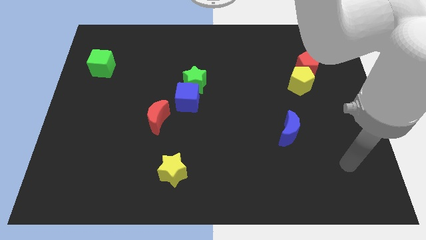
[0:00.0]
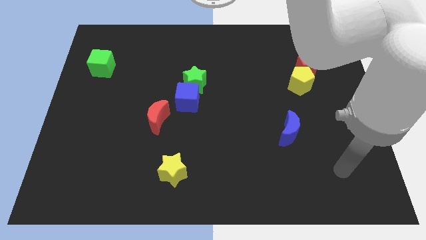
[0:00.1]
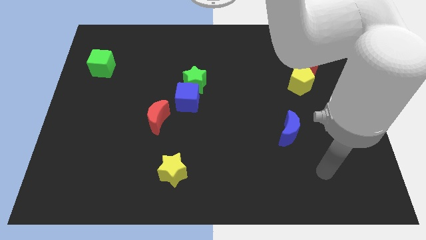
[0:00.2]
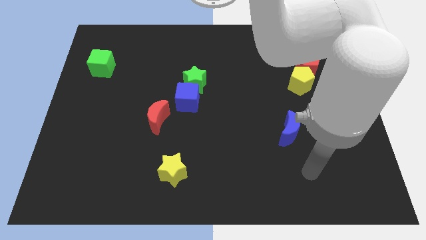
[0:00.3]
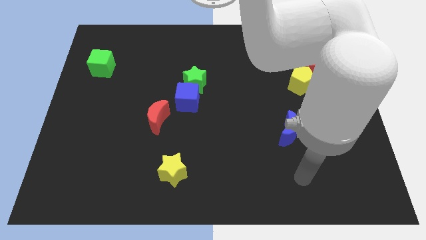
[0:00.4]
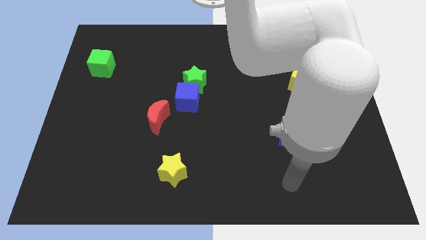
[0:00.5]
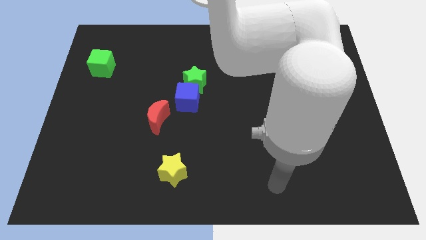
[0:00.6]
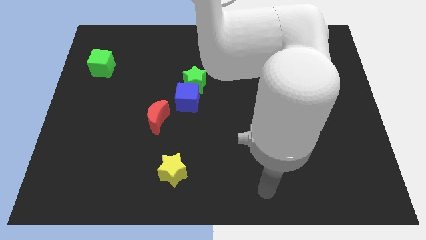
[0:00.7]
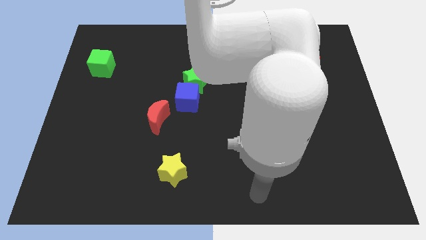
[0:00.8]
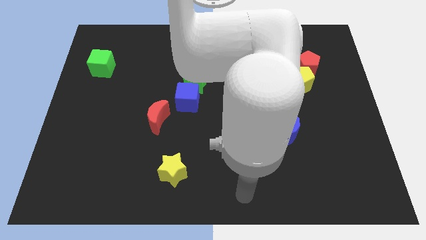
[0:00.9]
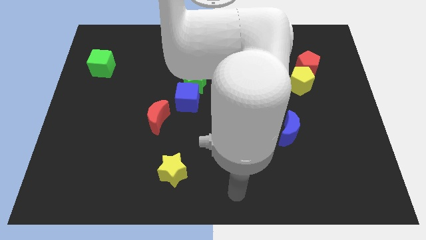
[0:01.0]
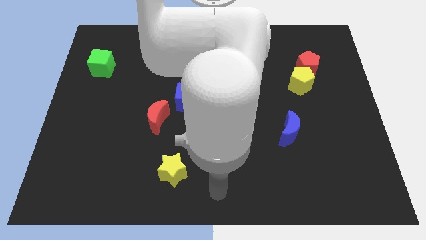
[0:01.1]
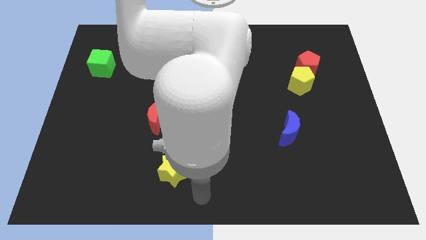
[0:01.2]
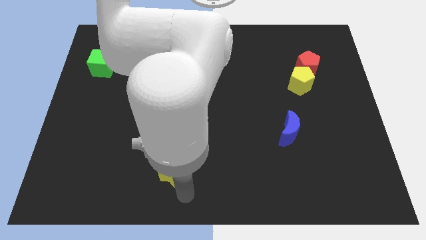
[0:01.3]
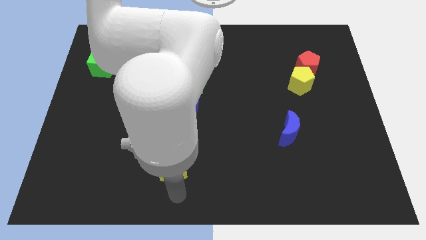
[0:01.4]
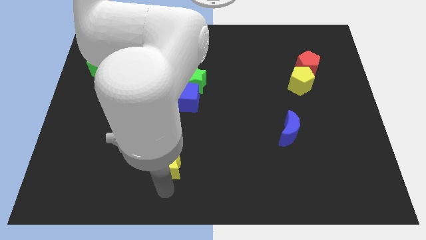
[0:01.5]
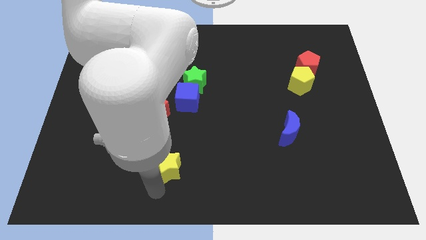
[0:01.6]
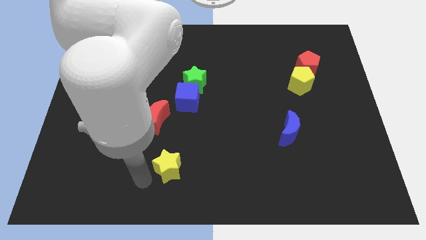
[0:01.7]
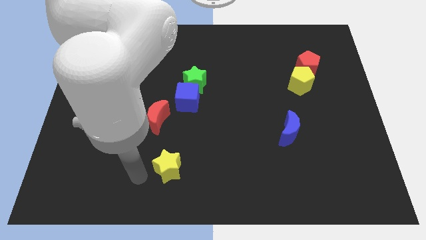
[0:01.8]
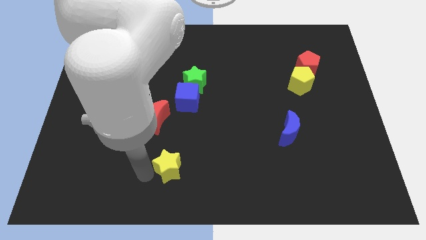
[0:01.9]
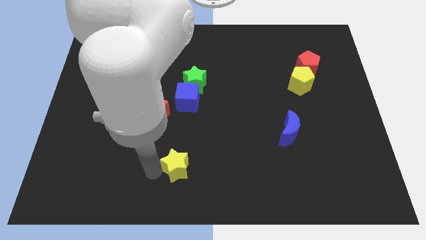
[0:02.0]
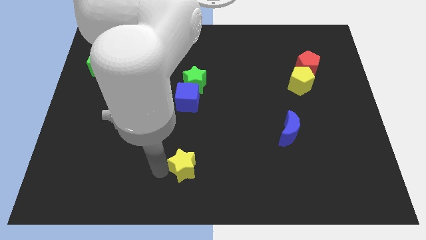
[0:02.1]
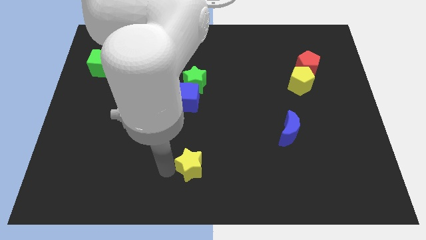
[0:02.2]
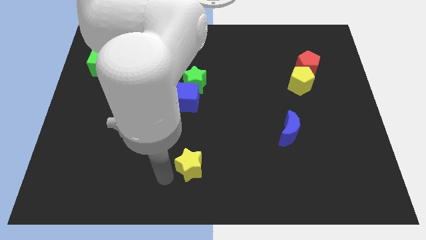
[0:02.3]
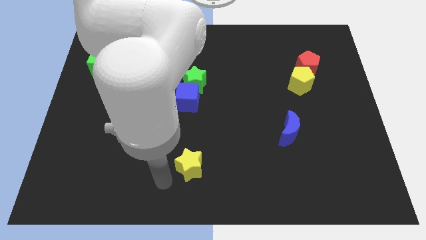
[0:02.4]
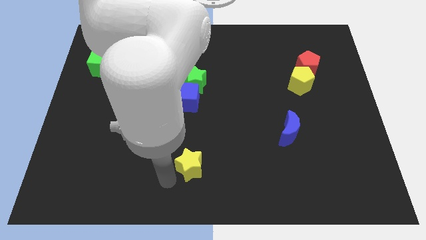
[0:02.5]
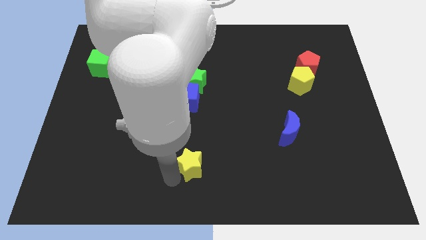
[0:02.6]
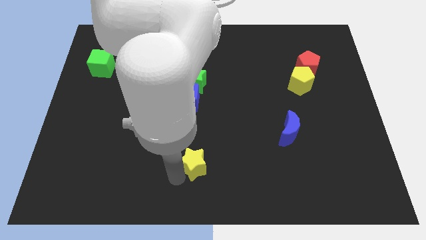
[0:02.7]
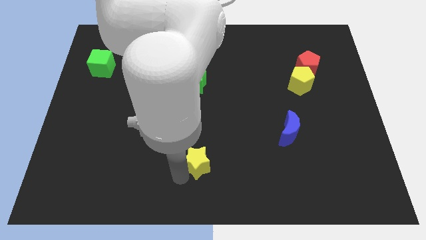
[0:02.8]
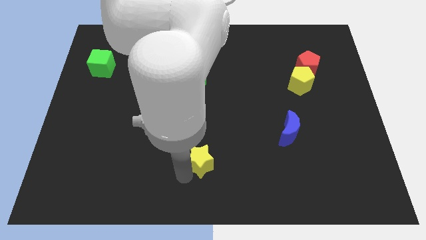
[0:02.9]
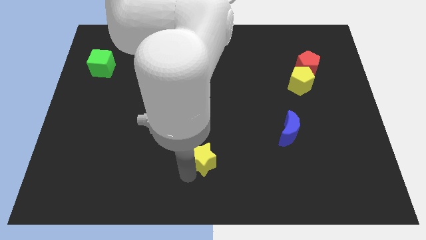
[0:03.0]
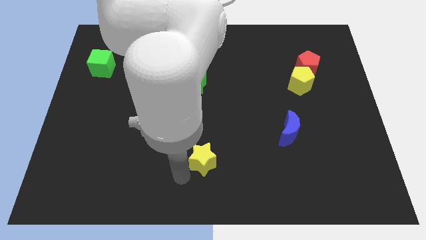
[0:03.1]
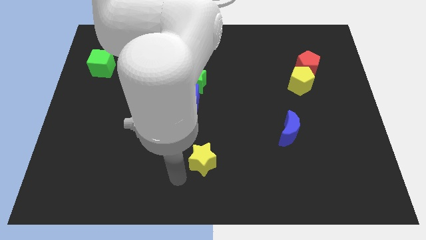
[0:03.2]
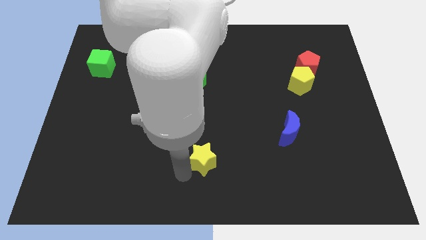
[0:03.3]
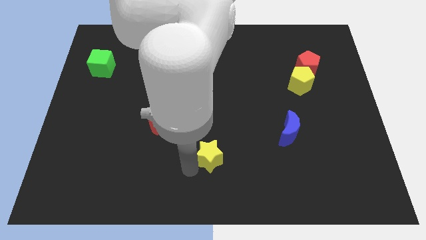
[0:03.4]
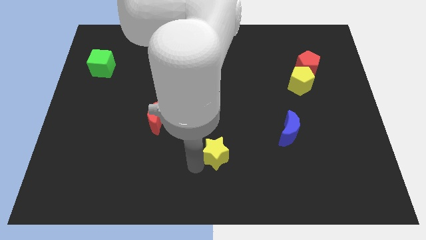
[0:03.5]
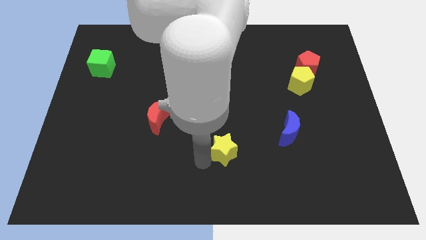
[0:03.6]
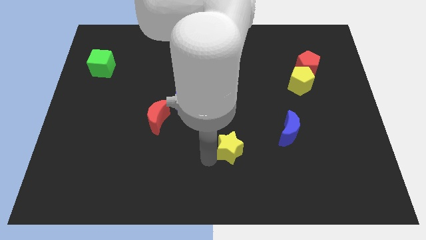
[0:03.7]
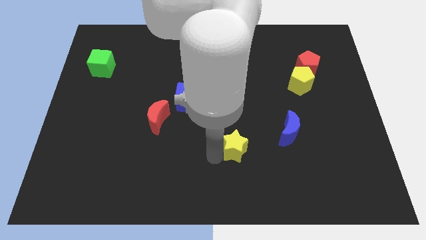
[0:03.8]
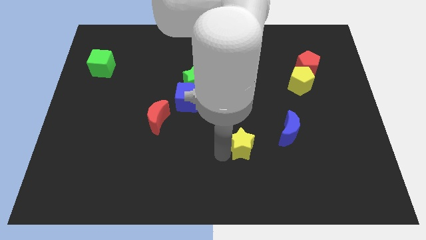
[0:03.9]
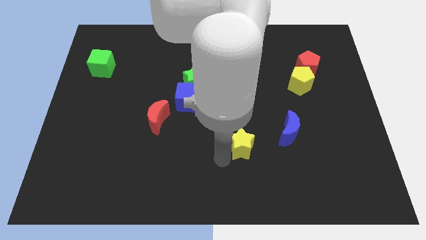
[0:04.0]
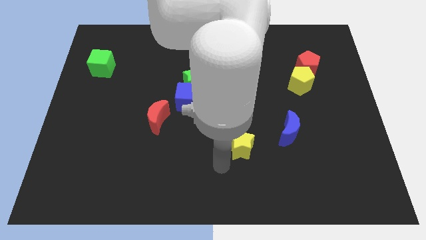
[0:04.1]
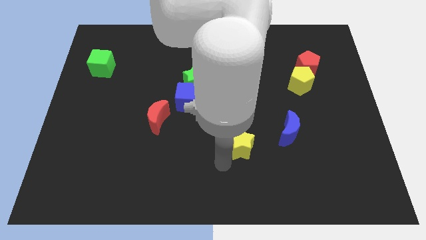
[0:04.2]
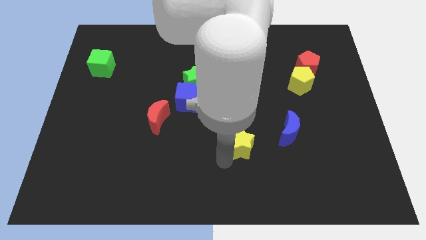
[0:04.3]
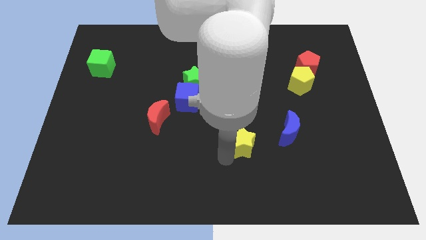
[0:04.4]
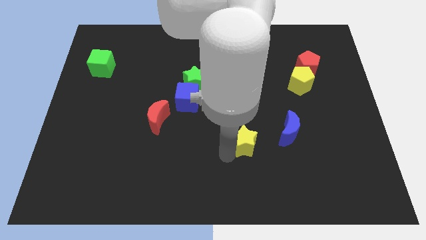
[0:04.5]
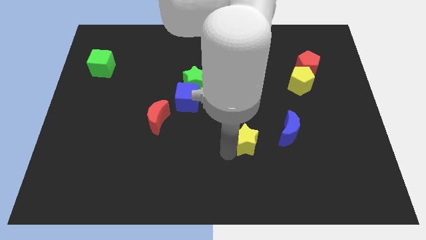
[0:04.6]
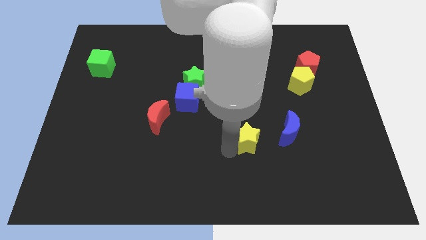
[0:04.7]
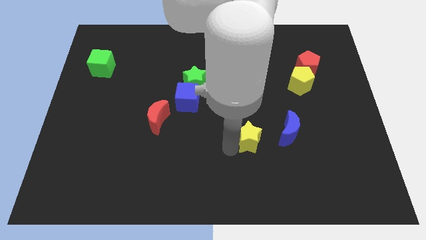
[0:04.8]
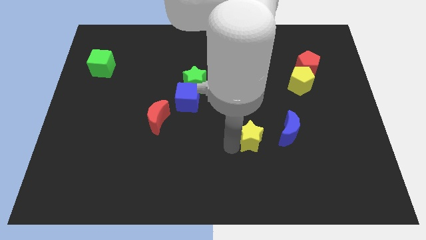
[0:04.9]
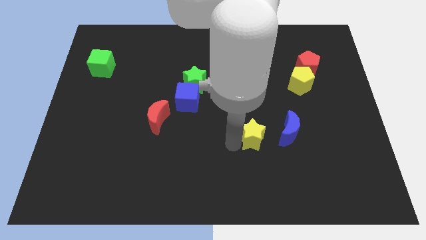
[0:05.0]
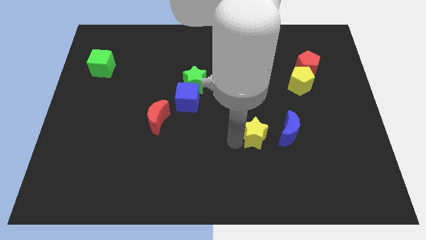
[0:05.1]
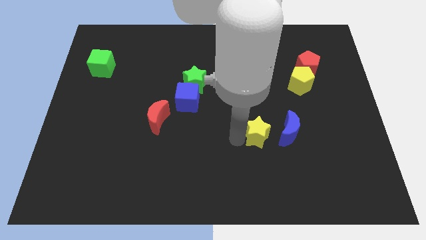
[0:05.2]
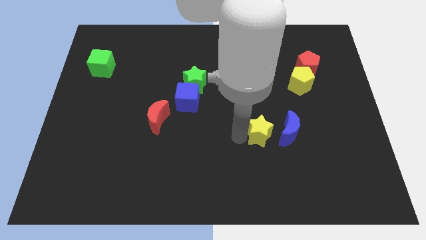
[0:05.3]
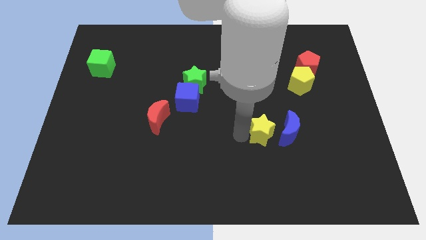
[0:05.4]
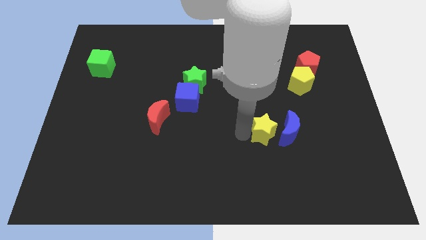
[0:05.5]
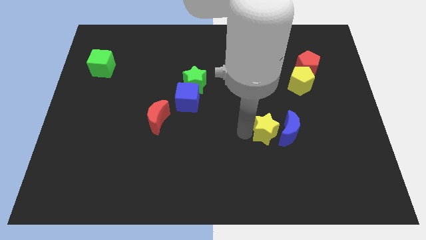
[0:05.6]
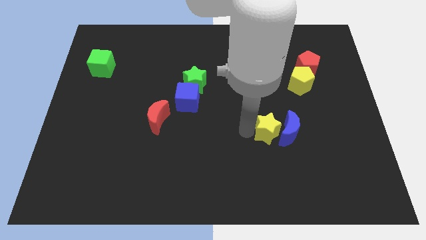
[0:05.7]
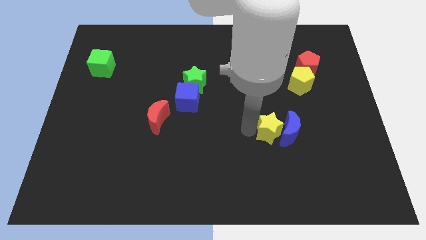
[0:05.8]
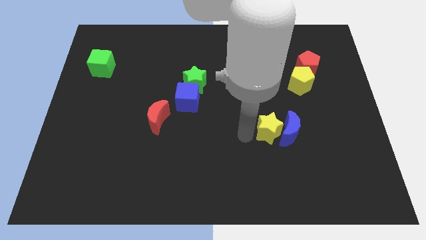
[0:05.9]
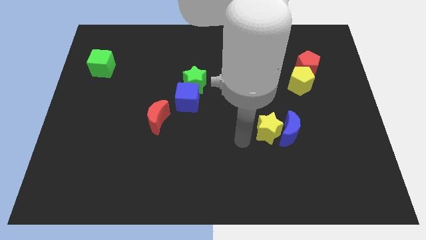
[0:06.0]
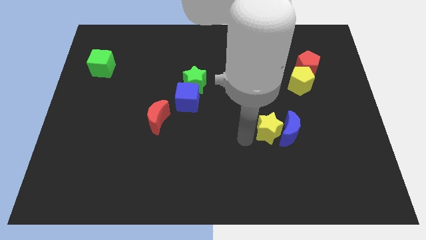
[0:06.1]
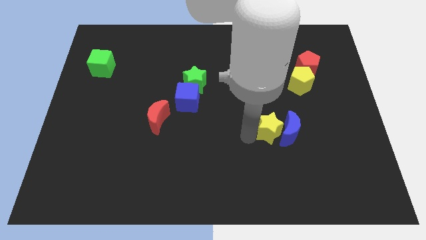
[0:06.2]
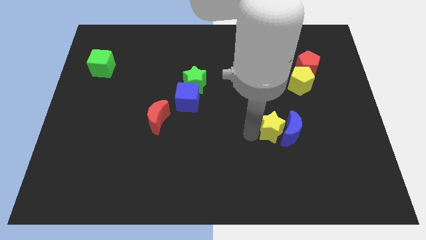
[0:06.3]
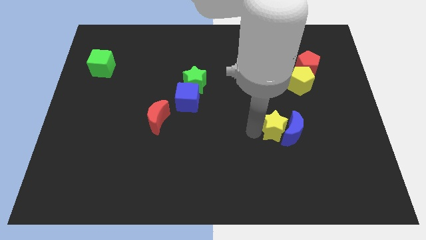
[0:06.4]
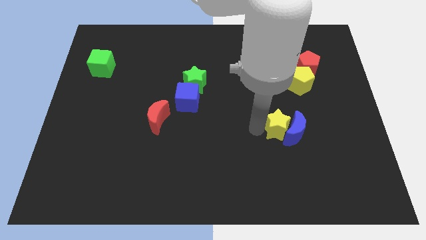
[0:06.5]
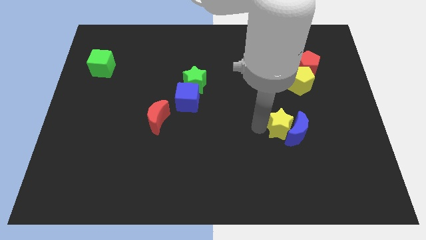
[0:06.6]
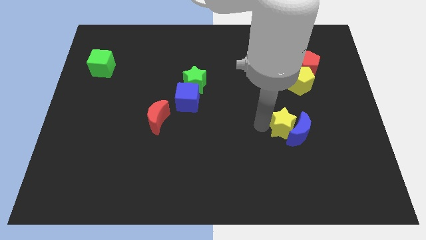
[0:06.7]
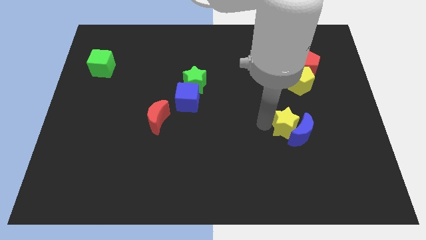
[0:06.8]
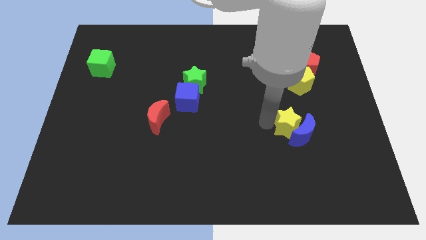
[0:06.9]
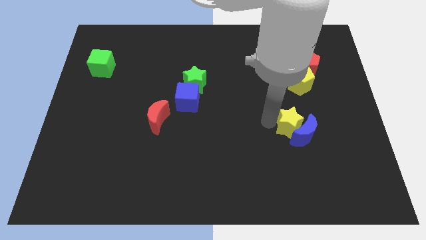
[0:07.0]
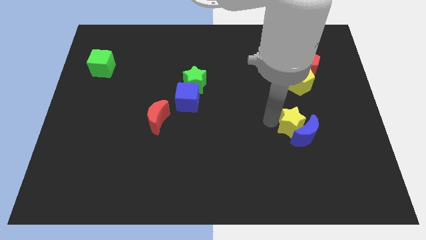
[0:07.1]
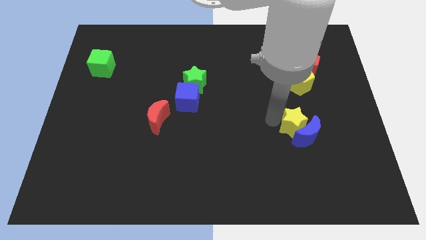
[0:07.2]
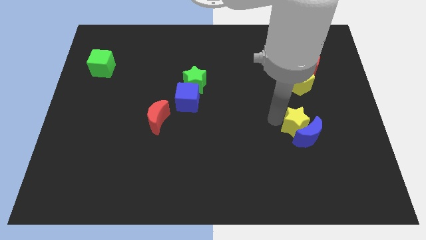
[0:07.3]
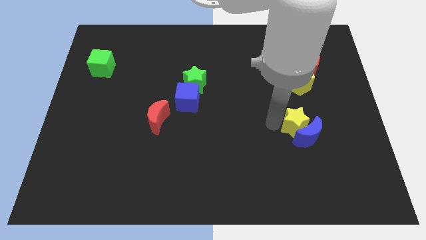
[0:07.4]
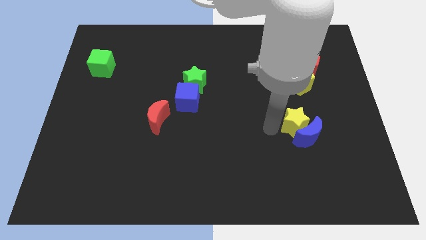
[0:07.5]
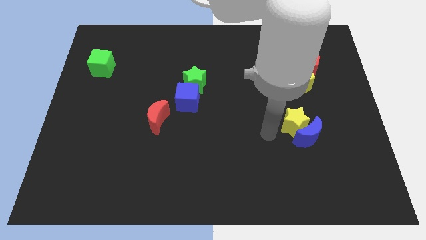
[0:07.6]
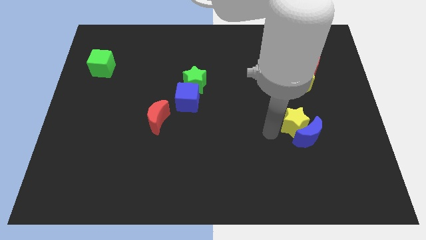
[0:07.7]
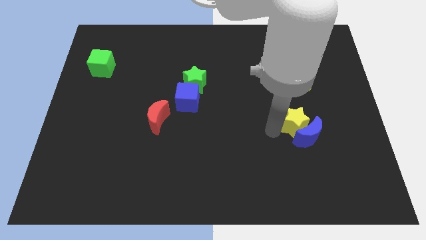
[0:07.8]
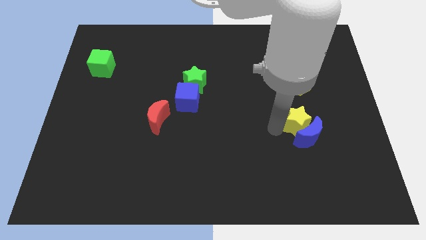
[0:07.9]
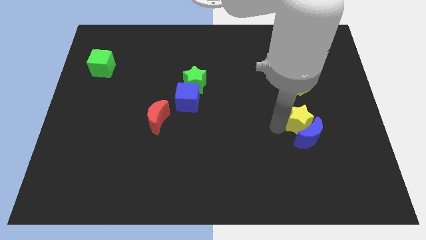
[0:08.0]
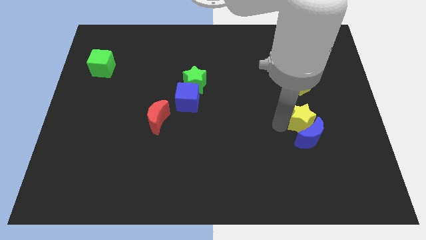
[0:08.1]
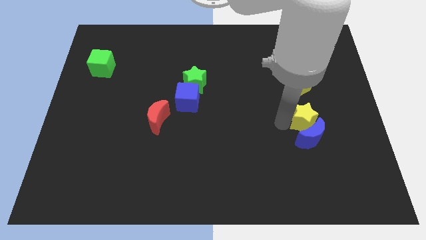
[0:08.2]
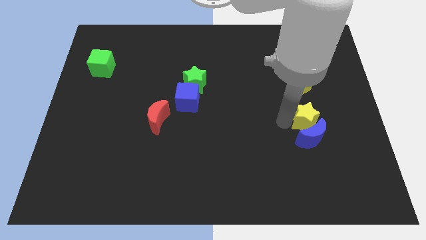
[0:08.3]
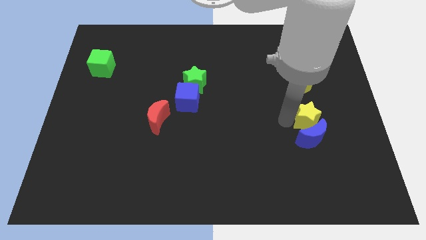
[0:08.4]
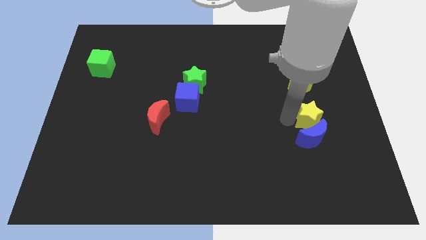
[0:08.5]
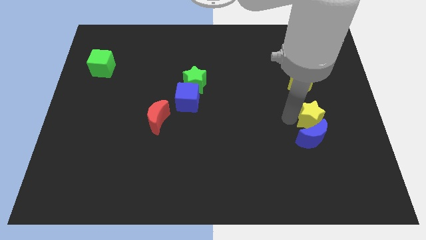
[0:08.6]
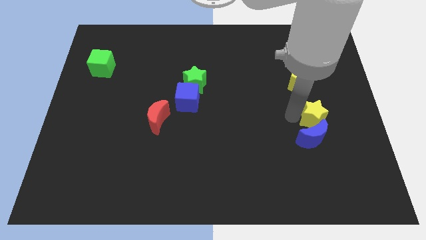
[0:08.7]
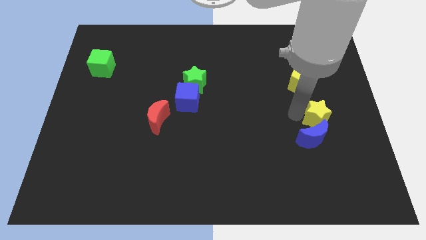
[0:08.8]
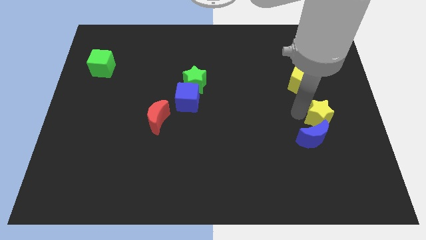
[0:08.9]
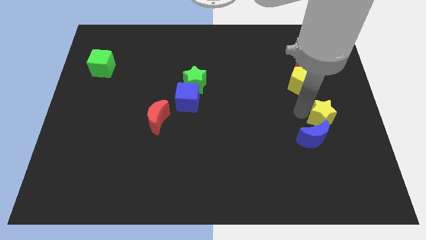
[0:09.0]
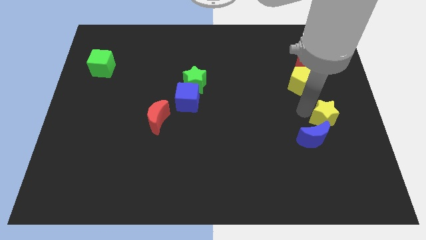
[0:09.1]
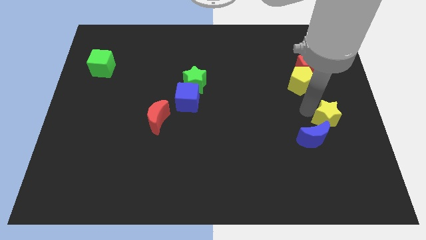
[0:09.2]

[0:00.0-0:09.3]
slide the yellow star to the right side of the board
